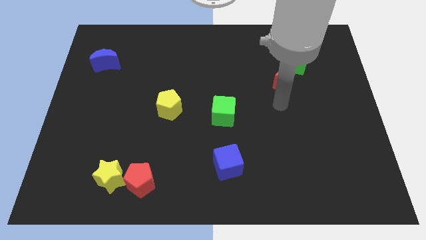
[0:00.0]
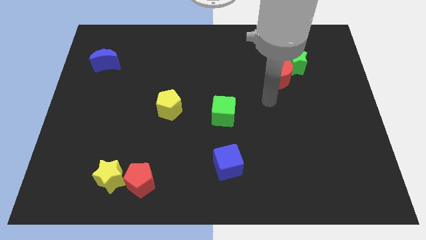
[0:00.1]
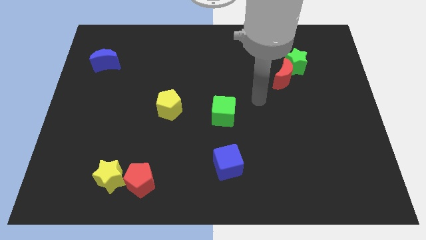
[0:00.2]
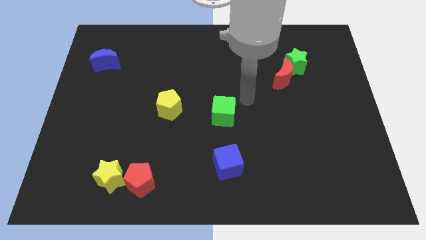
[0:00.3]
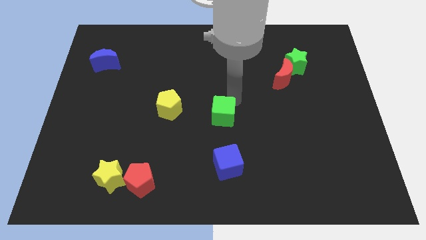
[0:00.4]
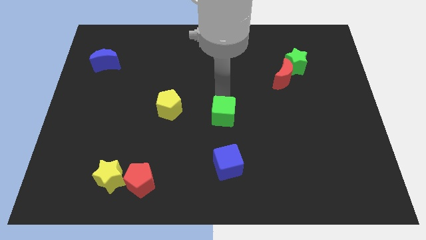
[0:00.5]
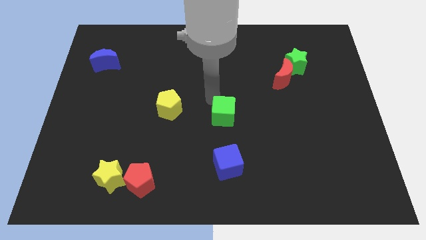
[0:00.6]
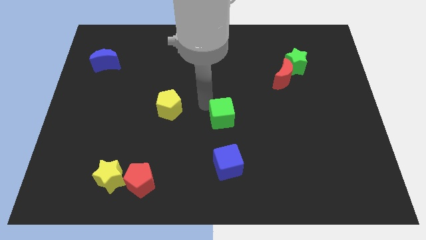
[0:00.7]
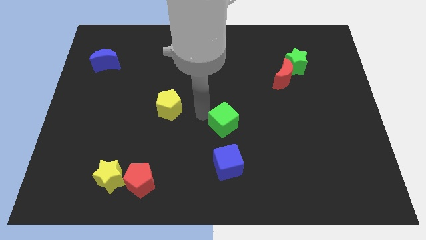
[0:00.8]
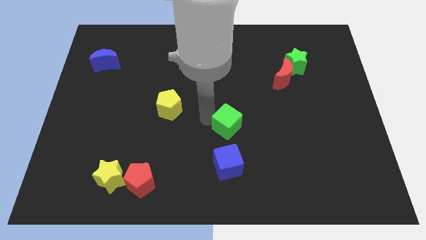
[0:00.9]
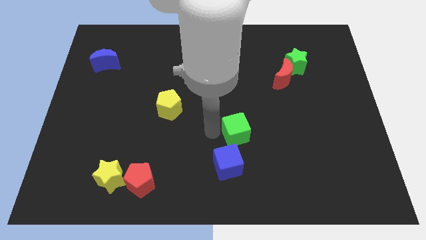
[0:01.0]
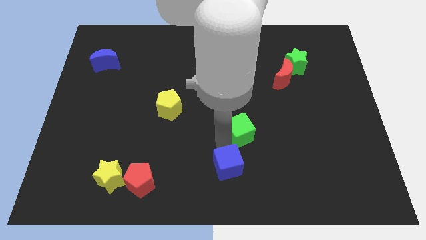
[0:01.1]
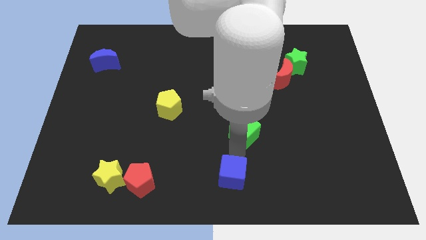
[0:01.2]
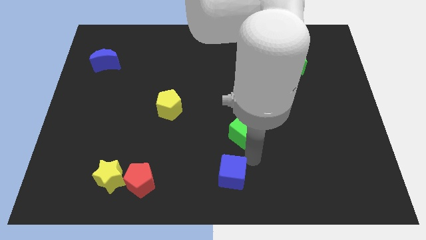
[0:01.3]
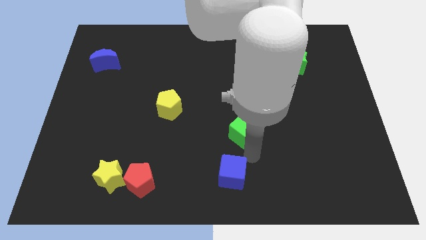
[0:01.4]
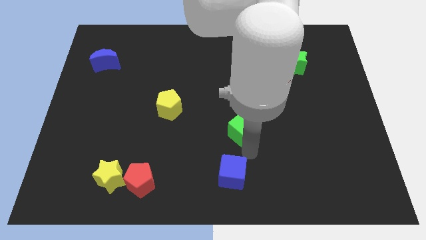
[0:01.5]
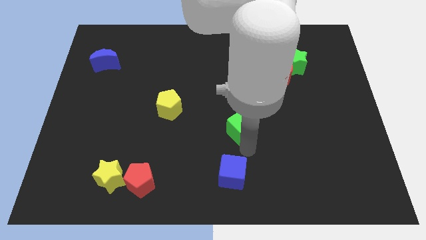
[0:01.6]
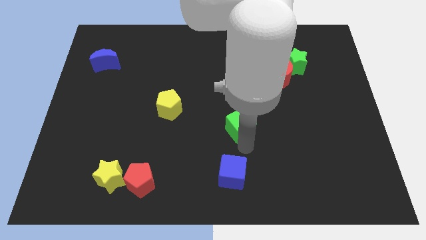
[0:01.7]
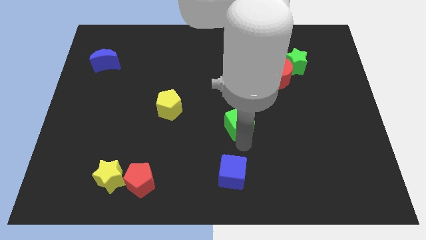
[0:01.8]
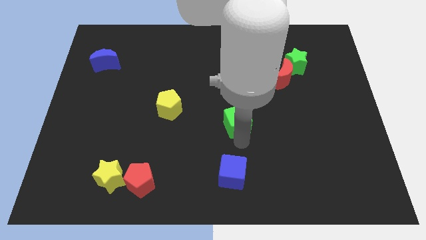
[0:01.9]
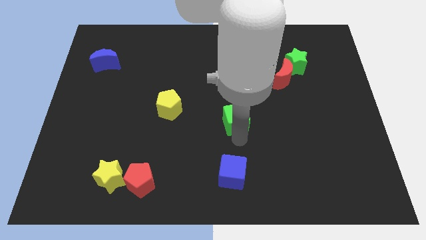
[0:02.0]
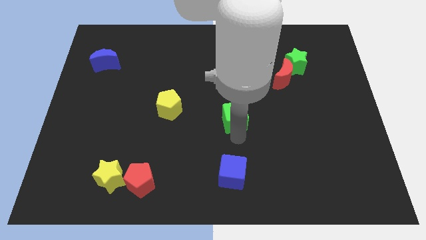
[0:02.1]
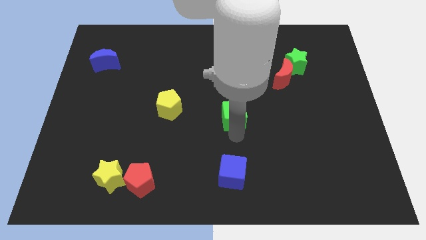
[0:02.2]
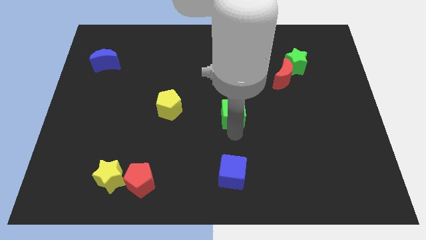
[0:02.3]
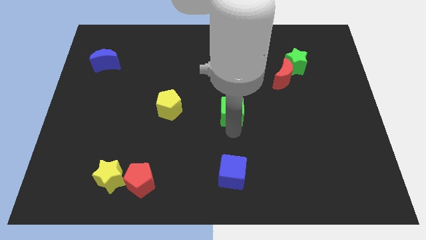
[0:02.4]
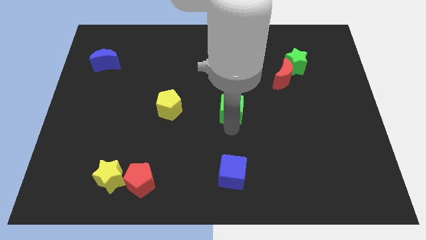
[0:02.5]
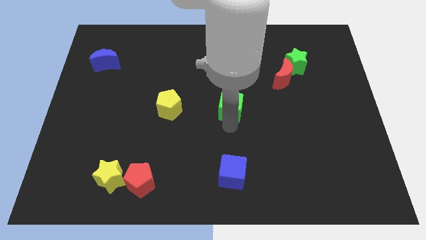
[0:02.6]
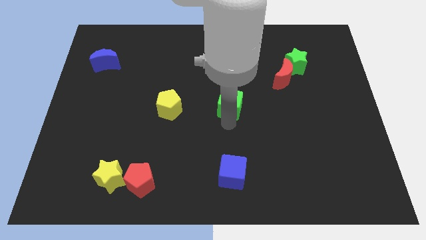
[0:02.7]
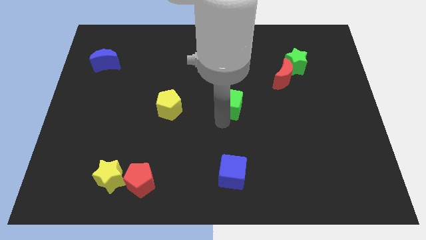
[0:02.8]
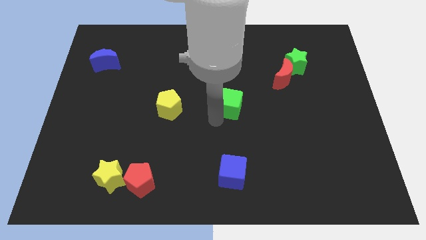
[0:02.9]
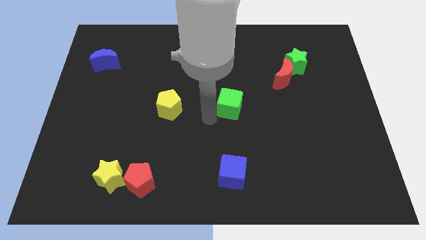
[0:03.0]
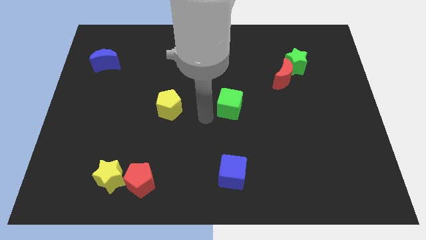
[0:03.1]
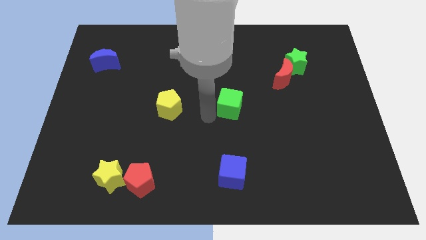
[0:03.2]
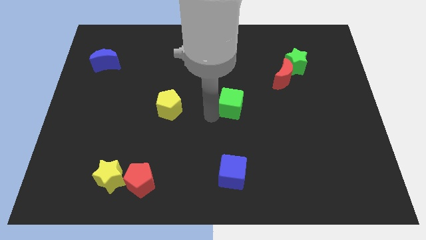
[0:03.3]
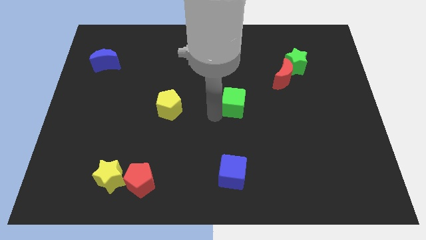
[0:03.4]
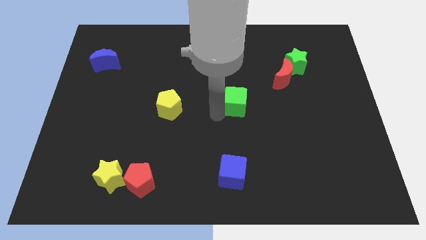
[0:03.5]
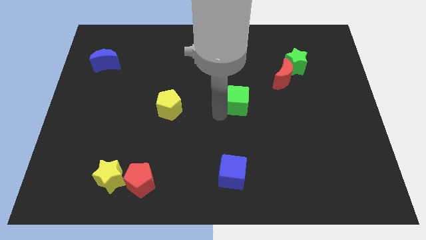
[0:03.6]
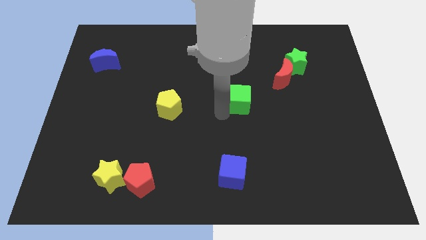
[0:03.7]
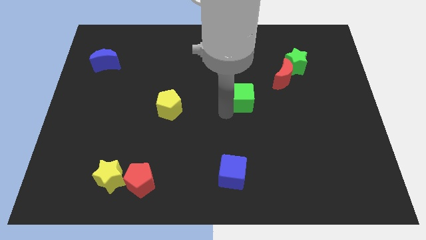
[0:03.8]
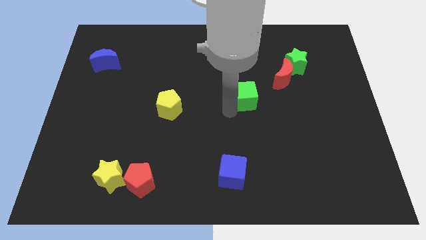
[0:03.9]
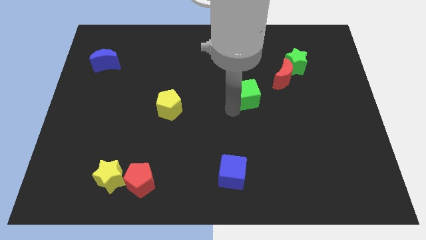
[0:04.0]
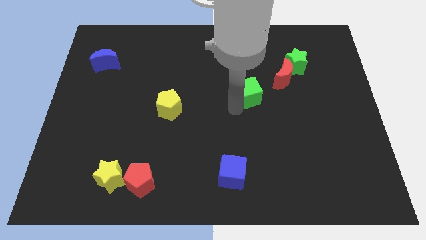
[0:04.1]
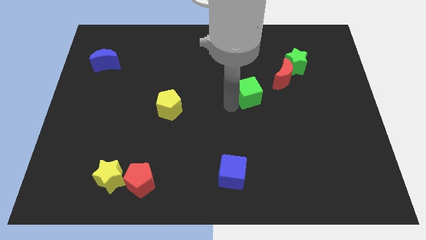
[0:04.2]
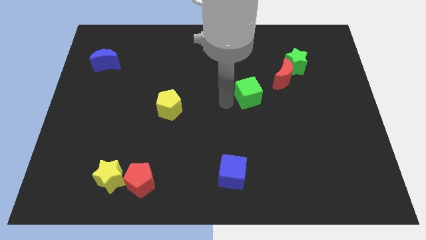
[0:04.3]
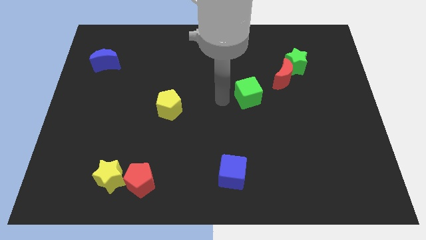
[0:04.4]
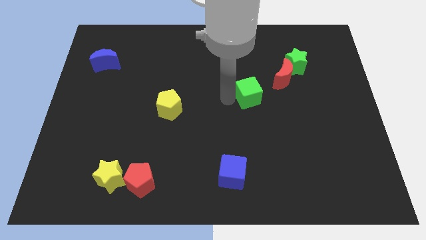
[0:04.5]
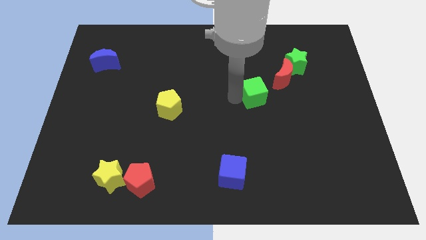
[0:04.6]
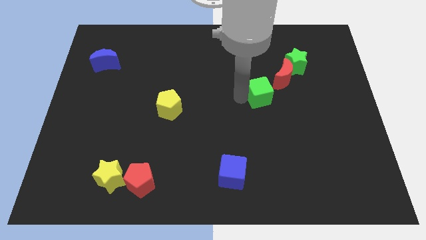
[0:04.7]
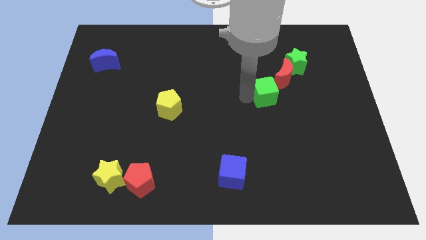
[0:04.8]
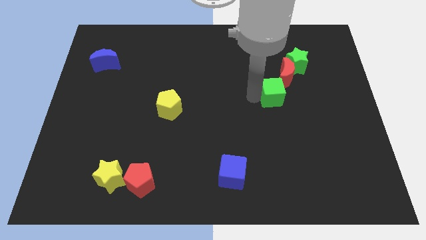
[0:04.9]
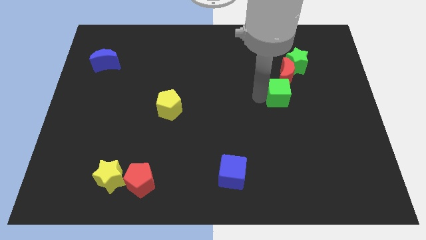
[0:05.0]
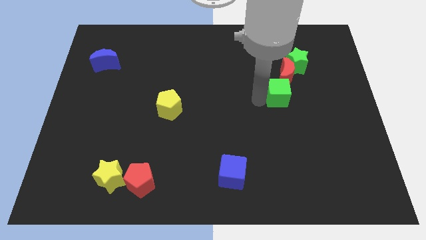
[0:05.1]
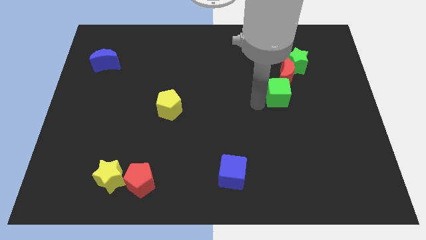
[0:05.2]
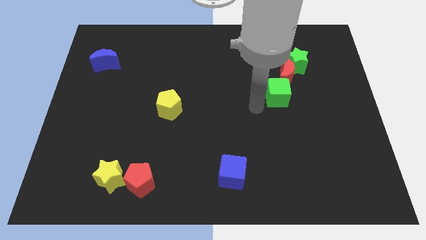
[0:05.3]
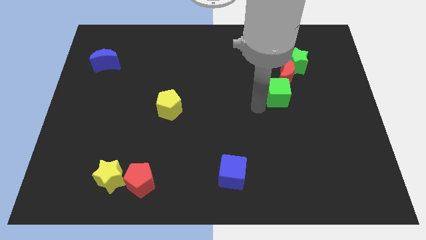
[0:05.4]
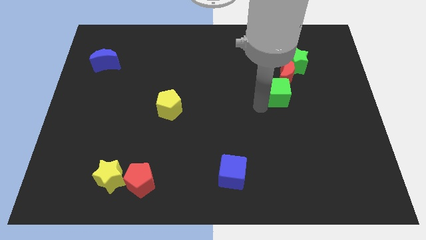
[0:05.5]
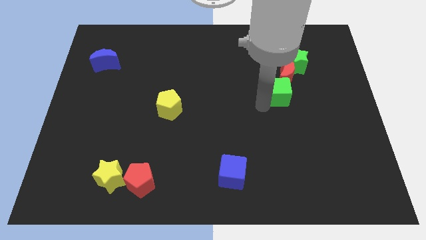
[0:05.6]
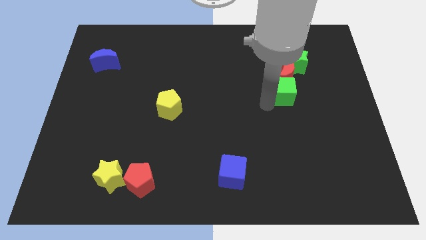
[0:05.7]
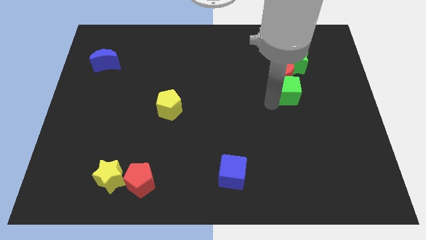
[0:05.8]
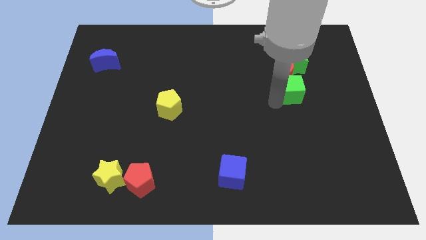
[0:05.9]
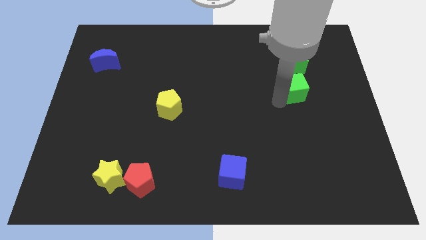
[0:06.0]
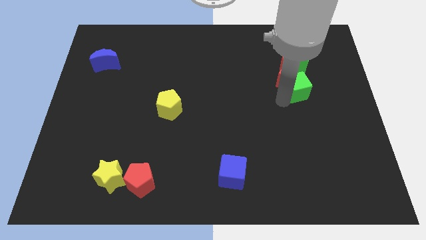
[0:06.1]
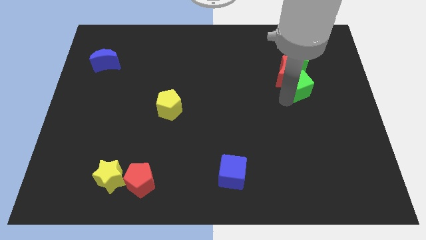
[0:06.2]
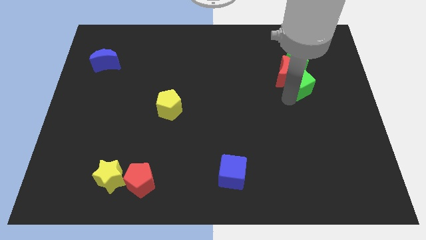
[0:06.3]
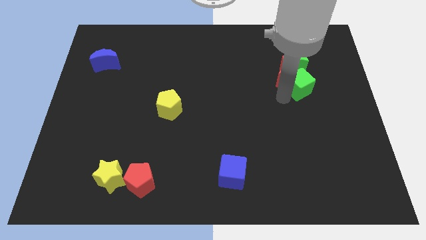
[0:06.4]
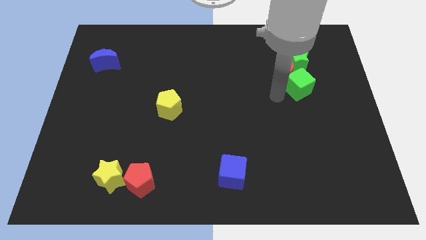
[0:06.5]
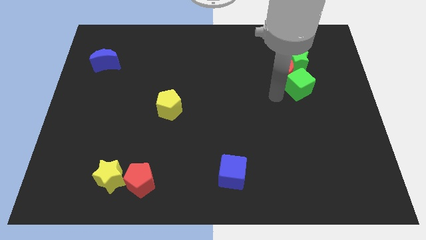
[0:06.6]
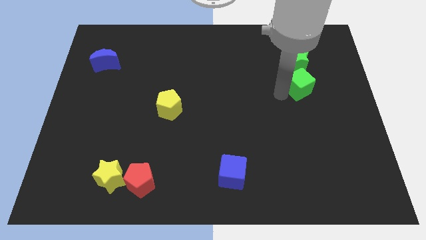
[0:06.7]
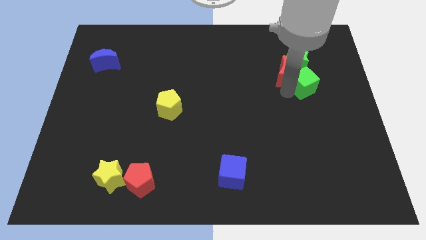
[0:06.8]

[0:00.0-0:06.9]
put the green cube diagonally down and to the right of the green star

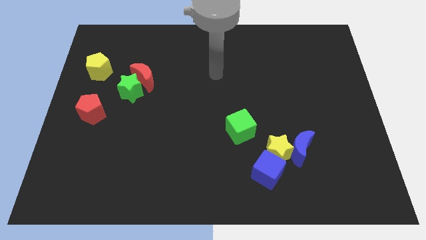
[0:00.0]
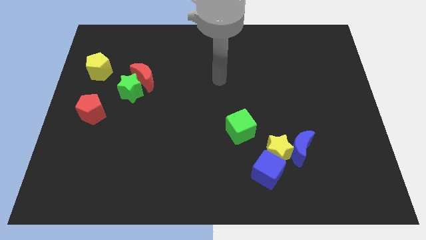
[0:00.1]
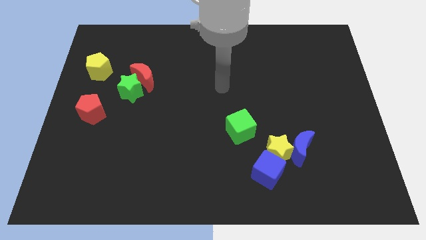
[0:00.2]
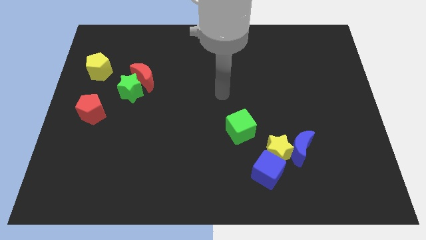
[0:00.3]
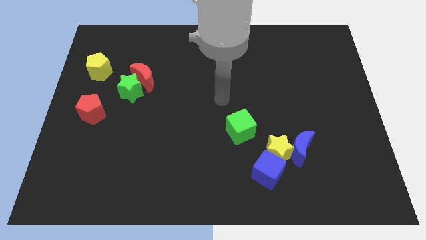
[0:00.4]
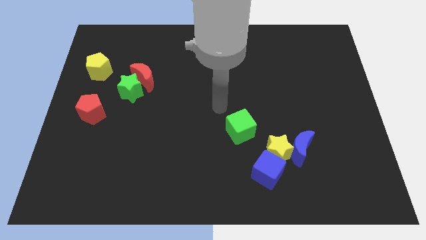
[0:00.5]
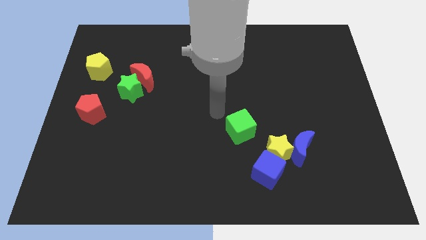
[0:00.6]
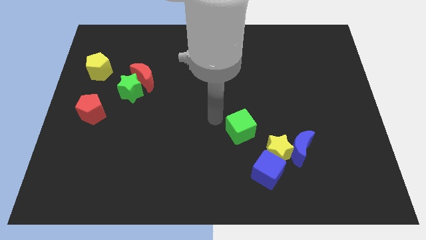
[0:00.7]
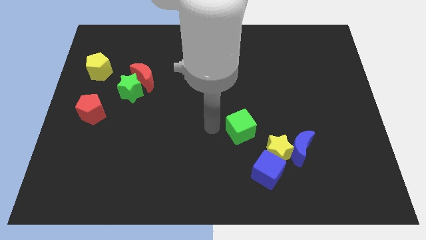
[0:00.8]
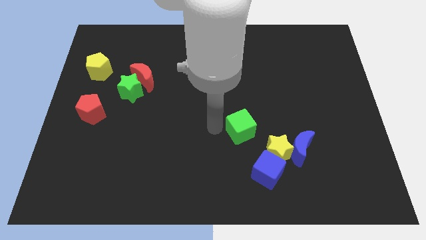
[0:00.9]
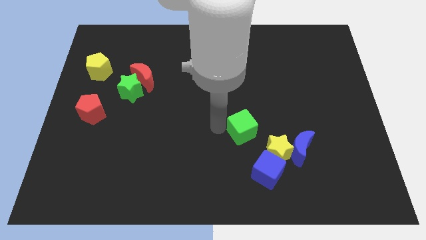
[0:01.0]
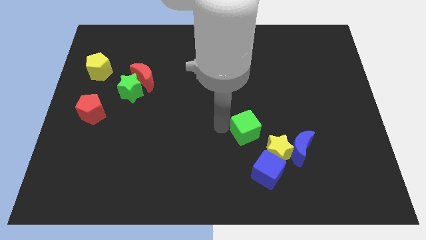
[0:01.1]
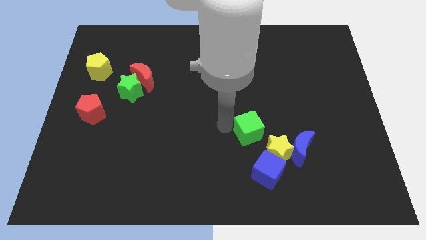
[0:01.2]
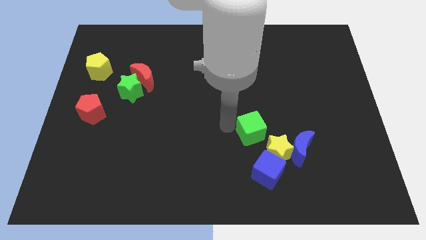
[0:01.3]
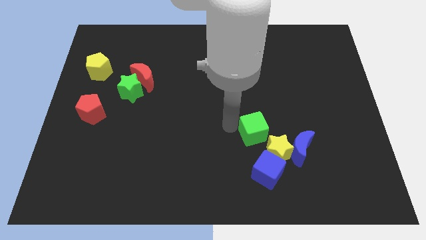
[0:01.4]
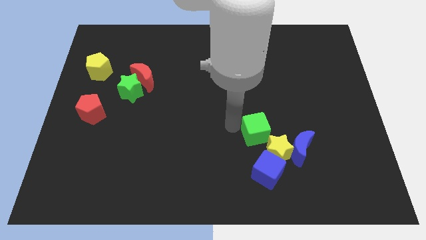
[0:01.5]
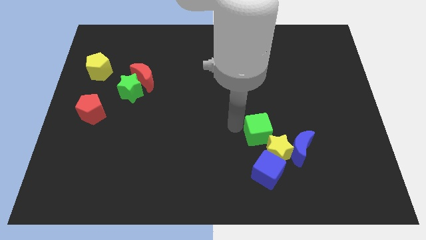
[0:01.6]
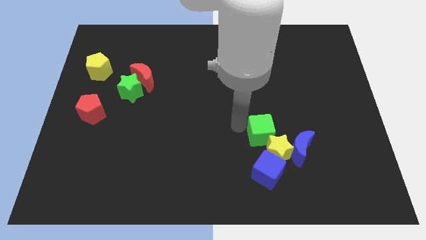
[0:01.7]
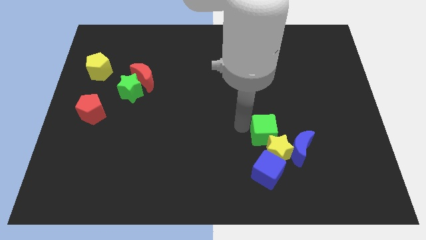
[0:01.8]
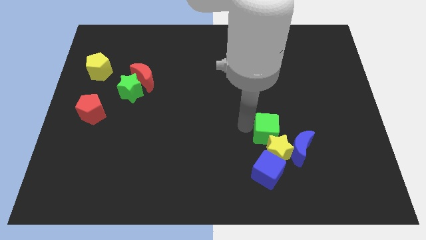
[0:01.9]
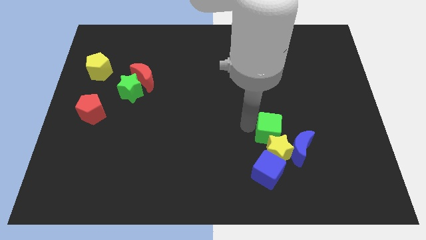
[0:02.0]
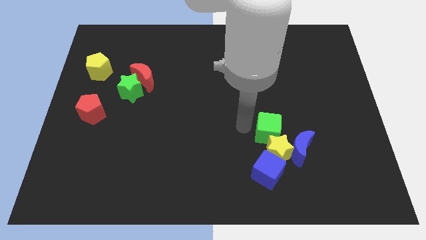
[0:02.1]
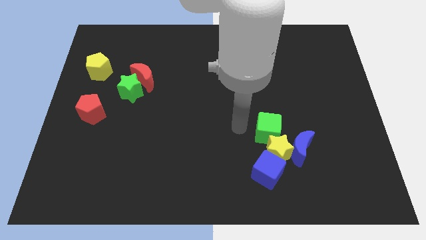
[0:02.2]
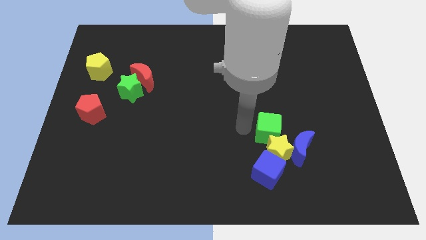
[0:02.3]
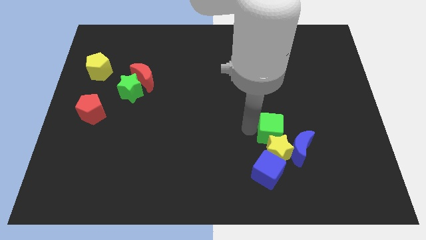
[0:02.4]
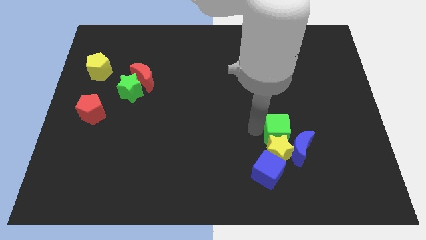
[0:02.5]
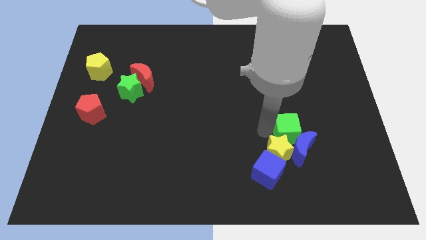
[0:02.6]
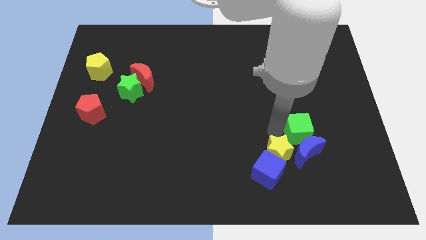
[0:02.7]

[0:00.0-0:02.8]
put the green cube to the top right side of the blue moon
